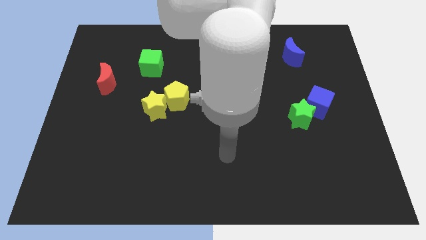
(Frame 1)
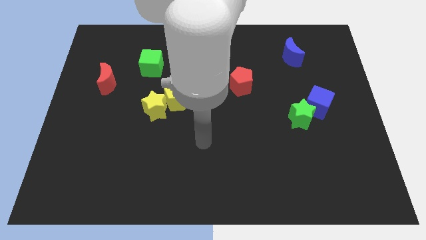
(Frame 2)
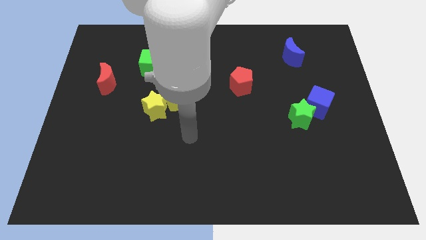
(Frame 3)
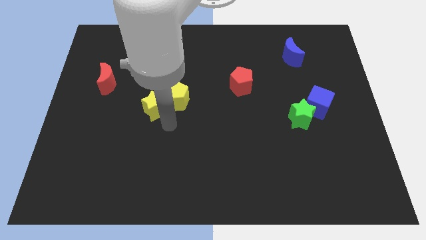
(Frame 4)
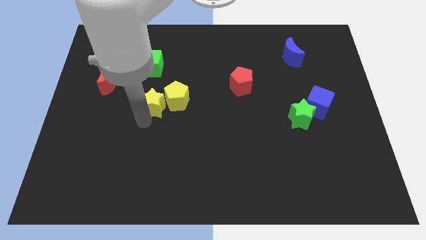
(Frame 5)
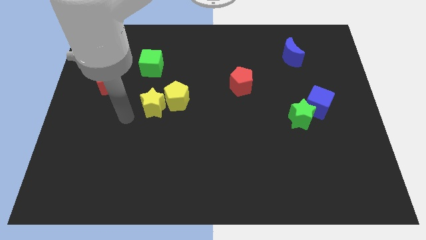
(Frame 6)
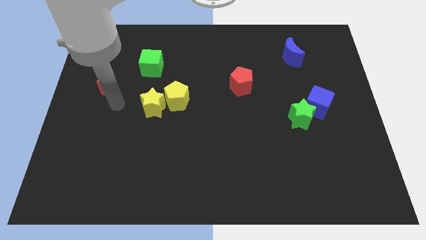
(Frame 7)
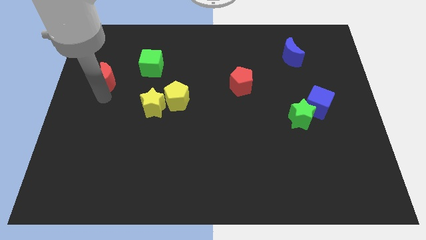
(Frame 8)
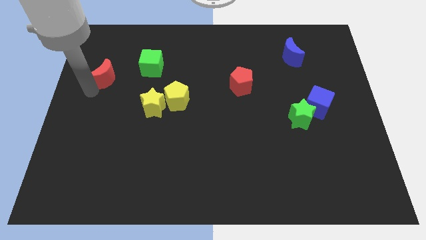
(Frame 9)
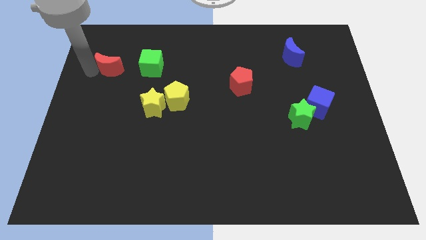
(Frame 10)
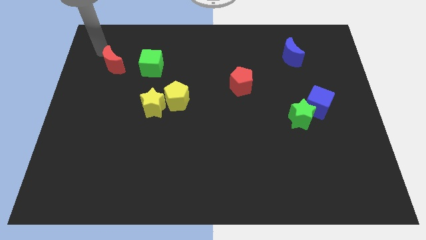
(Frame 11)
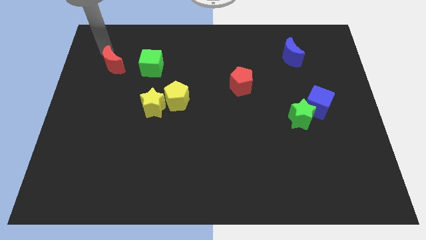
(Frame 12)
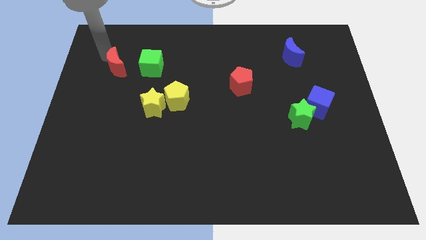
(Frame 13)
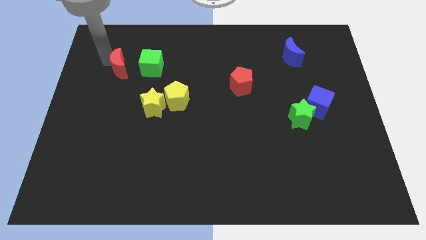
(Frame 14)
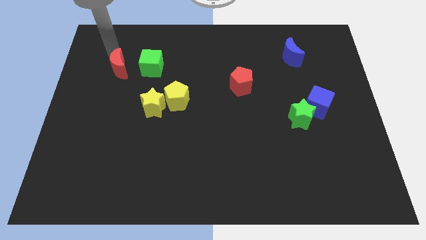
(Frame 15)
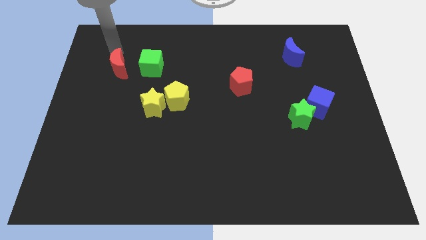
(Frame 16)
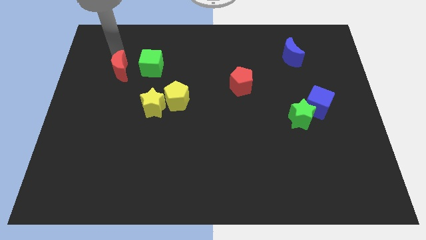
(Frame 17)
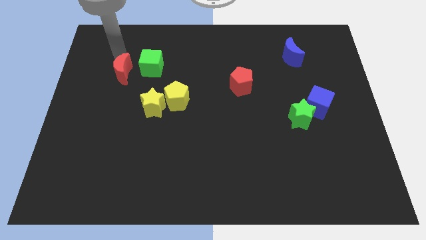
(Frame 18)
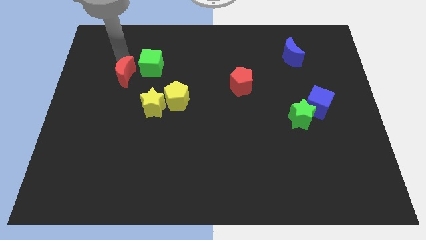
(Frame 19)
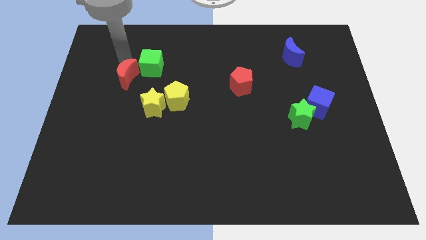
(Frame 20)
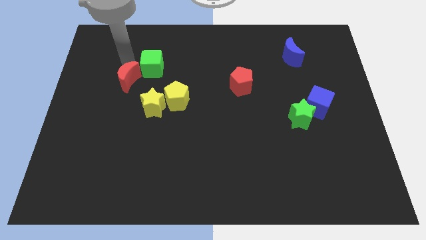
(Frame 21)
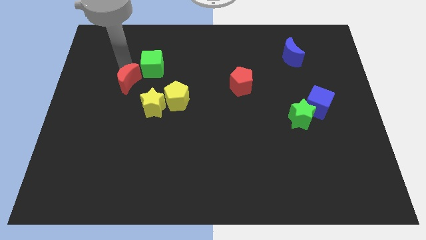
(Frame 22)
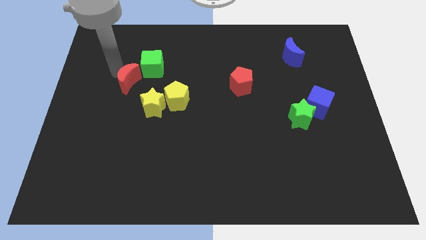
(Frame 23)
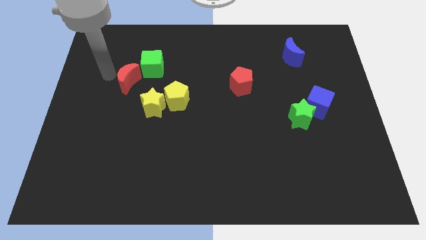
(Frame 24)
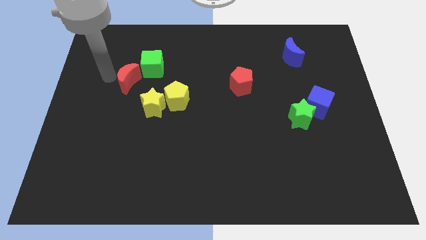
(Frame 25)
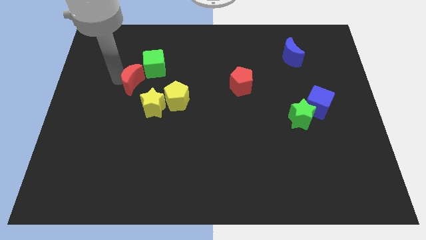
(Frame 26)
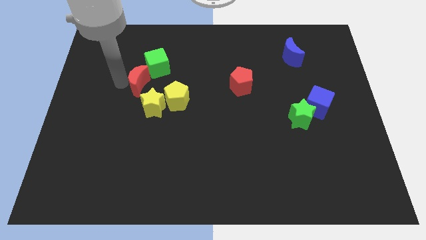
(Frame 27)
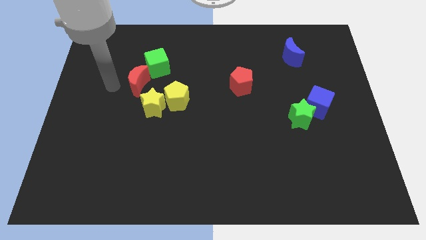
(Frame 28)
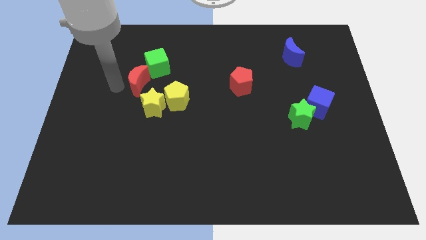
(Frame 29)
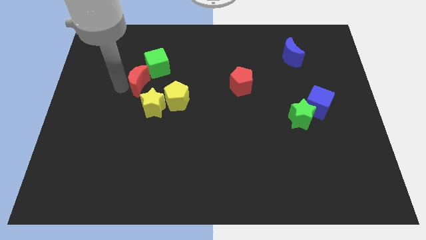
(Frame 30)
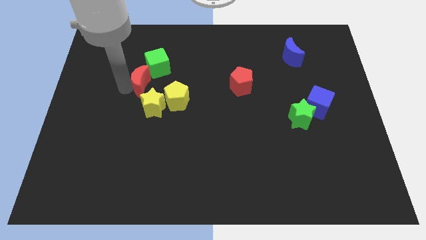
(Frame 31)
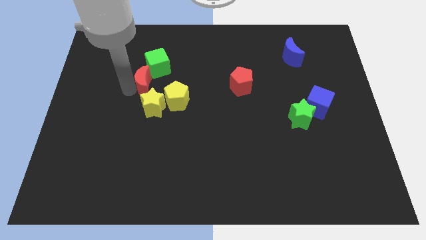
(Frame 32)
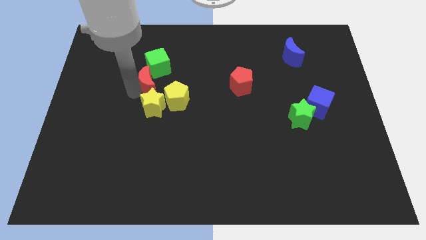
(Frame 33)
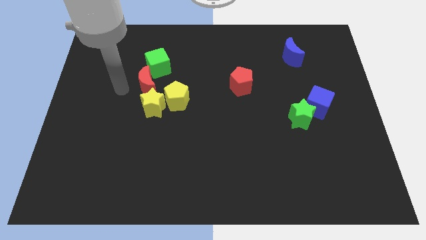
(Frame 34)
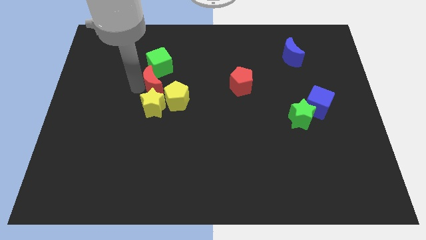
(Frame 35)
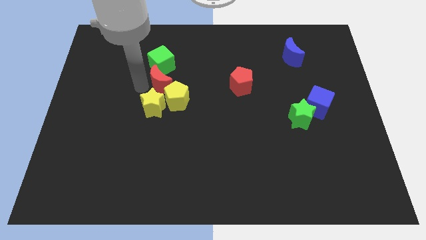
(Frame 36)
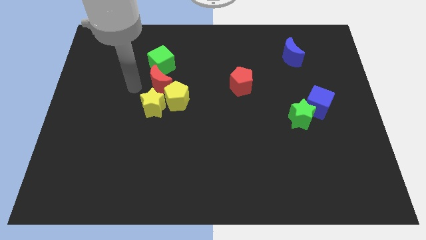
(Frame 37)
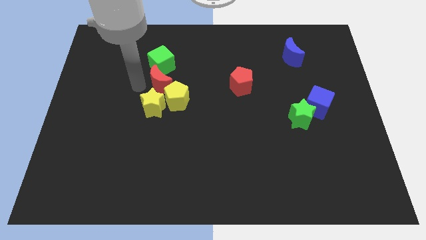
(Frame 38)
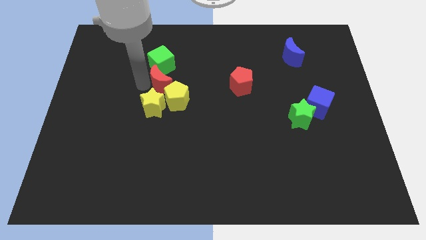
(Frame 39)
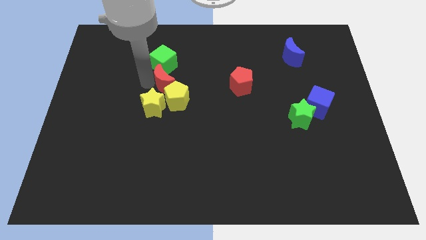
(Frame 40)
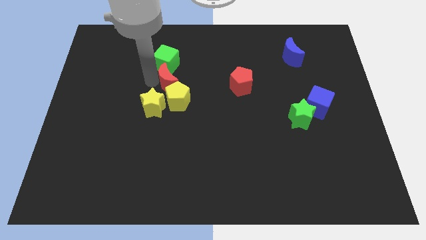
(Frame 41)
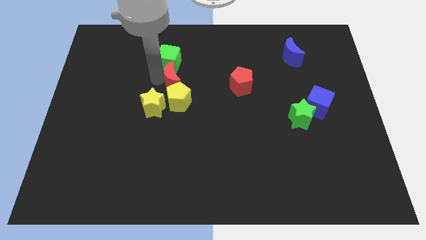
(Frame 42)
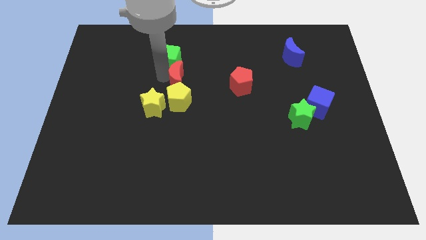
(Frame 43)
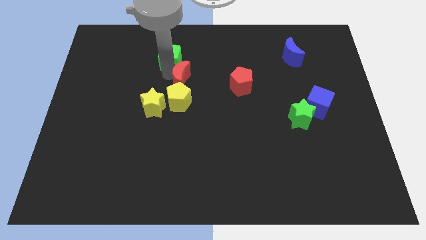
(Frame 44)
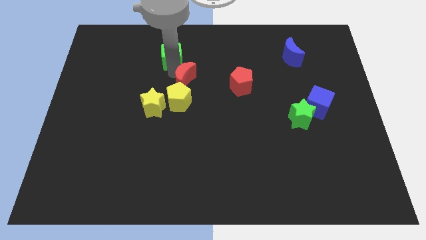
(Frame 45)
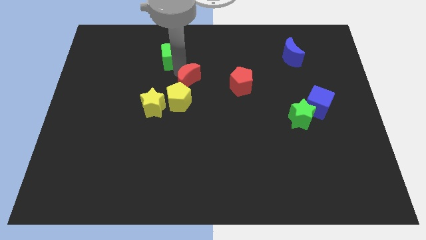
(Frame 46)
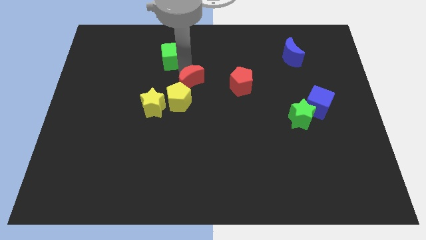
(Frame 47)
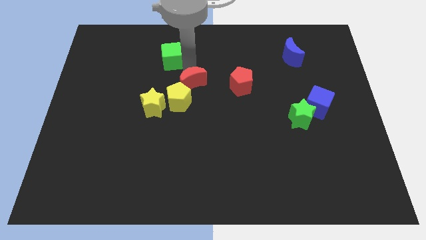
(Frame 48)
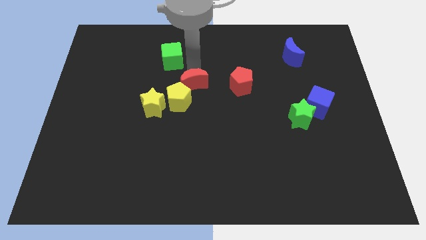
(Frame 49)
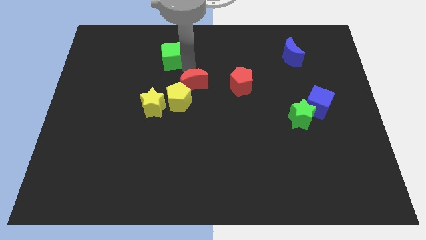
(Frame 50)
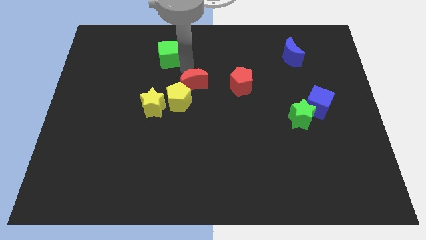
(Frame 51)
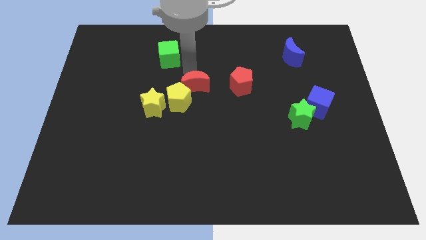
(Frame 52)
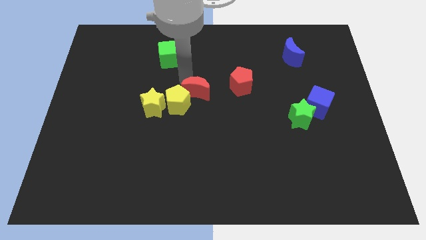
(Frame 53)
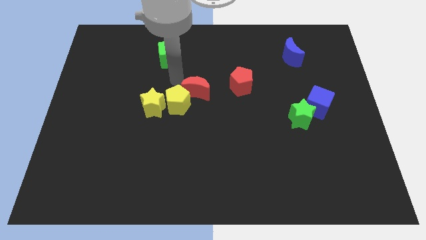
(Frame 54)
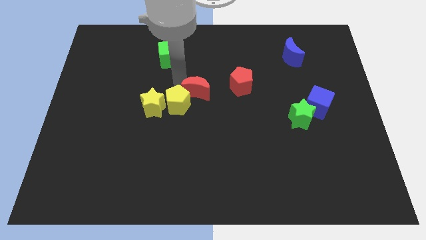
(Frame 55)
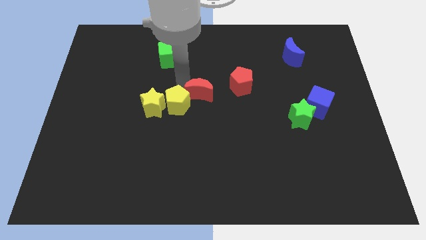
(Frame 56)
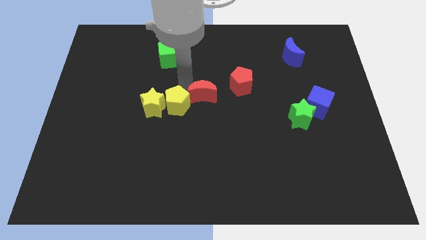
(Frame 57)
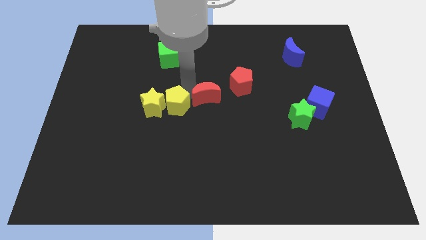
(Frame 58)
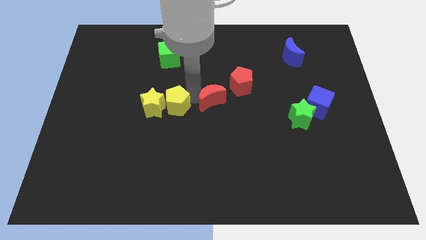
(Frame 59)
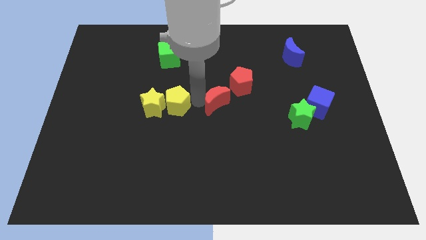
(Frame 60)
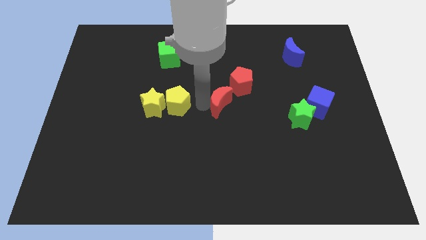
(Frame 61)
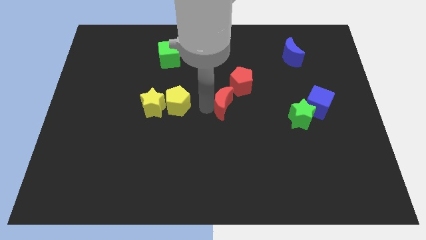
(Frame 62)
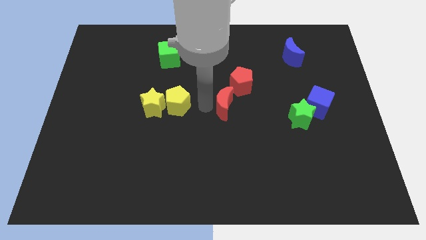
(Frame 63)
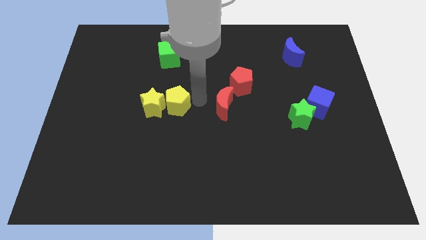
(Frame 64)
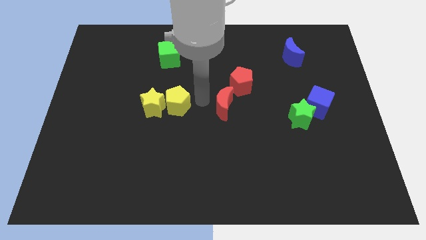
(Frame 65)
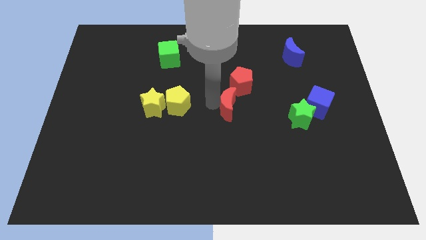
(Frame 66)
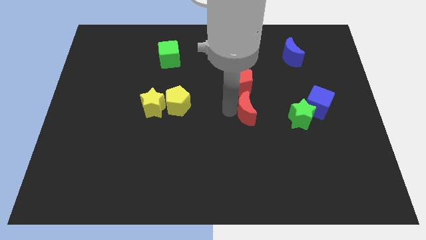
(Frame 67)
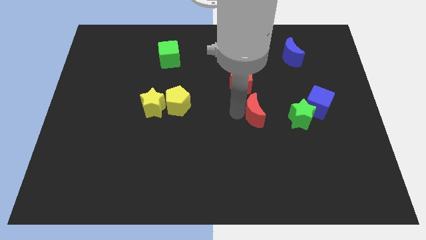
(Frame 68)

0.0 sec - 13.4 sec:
move the red moon just left of the blue cube
